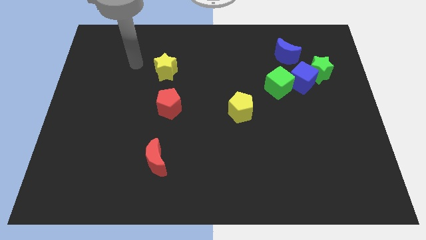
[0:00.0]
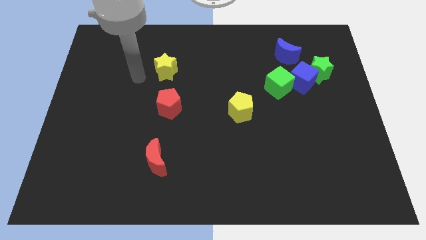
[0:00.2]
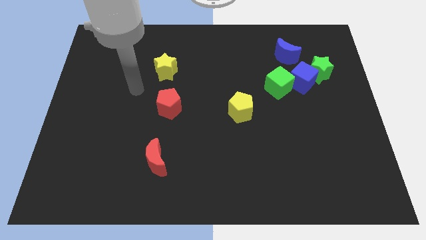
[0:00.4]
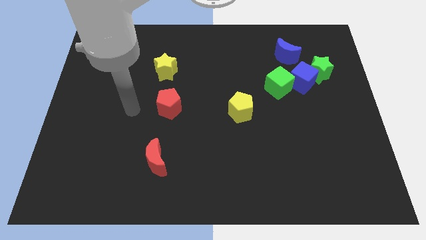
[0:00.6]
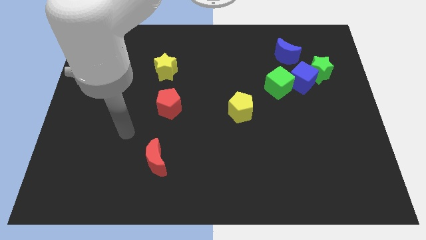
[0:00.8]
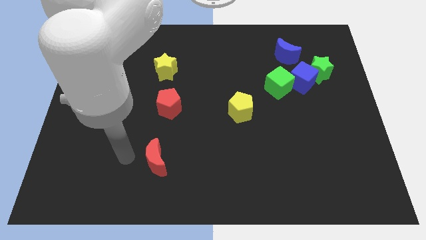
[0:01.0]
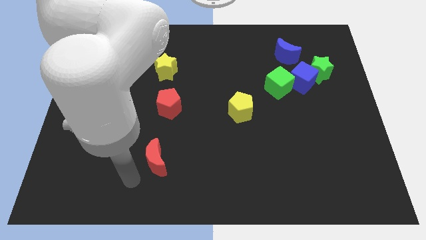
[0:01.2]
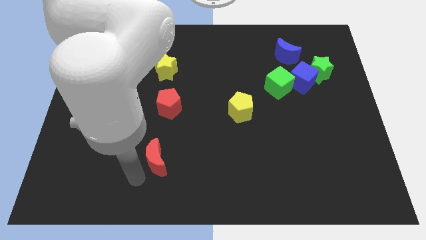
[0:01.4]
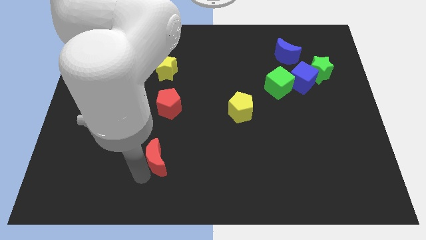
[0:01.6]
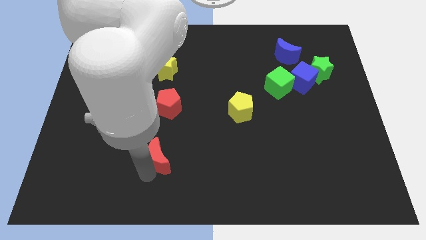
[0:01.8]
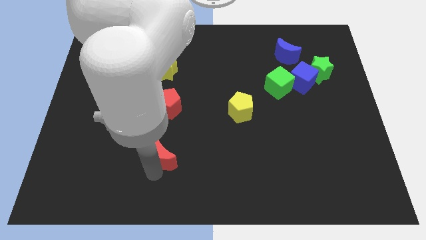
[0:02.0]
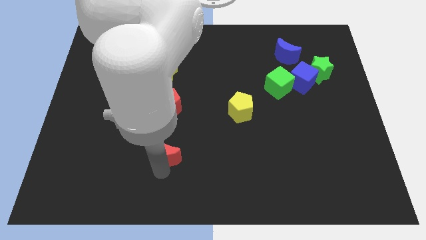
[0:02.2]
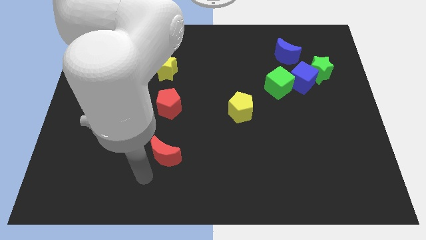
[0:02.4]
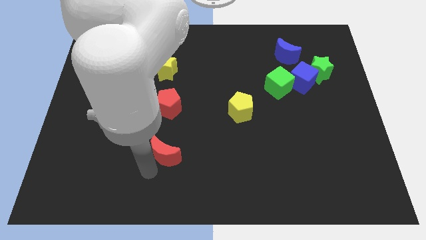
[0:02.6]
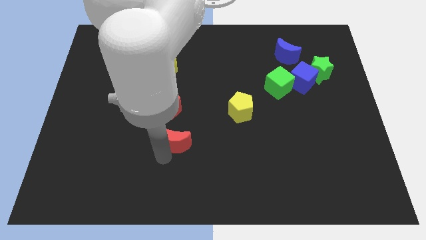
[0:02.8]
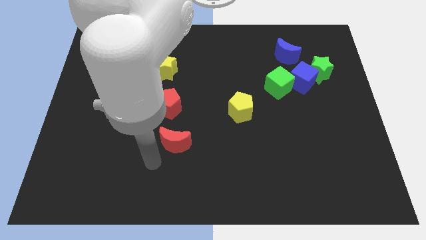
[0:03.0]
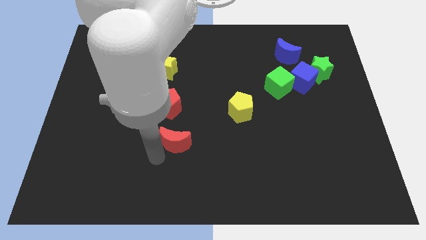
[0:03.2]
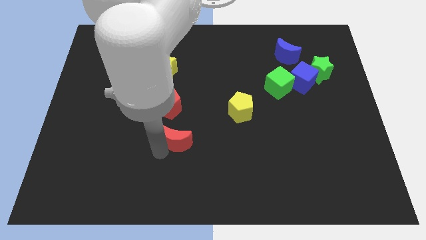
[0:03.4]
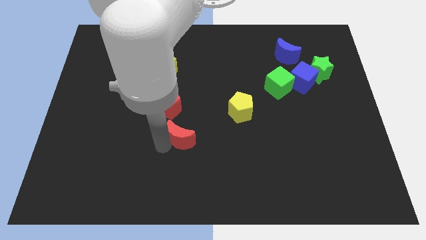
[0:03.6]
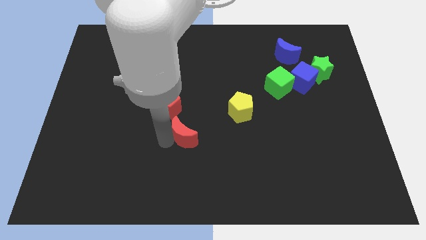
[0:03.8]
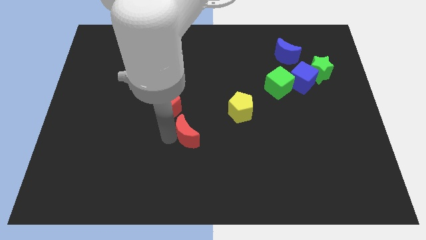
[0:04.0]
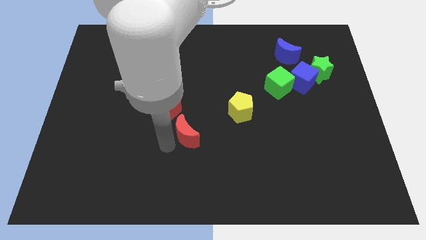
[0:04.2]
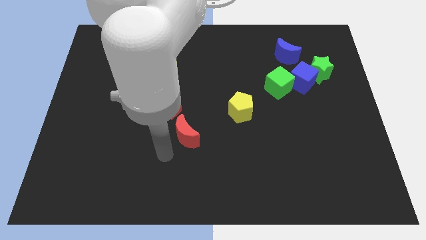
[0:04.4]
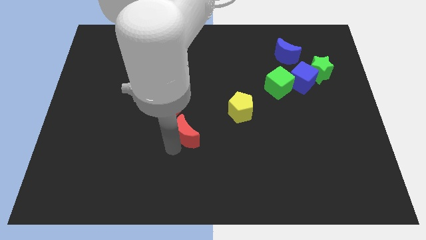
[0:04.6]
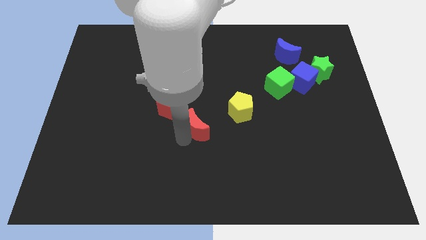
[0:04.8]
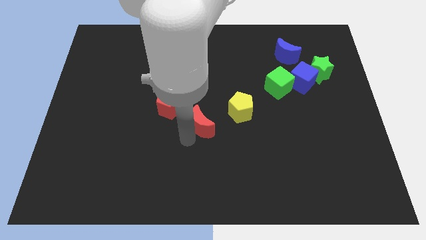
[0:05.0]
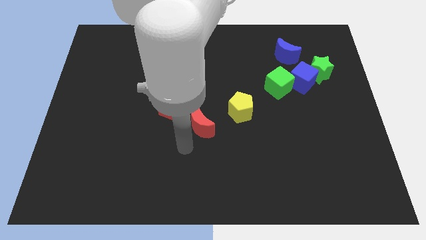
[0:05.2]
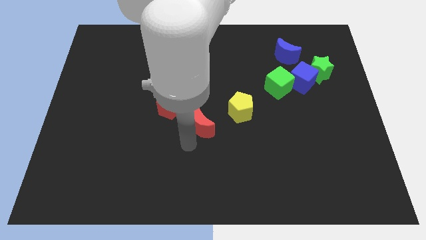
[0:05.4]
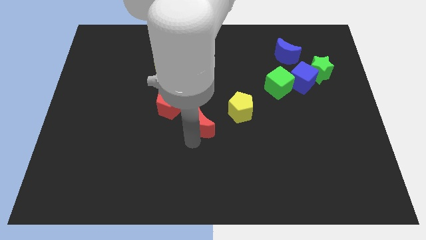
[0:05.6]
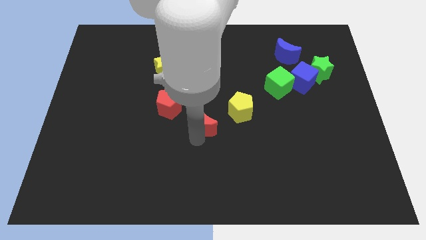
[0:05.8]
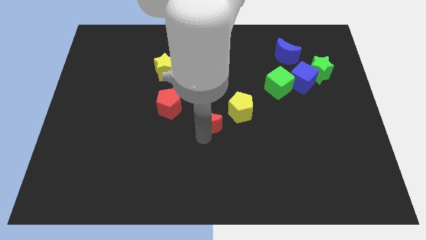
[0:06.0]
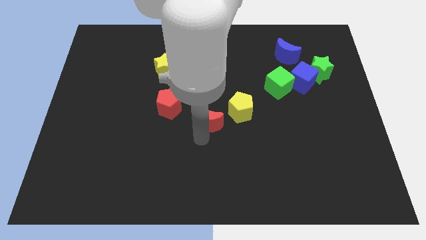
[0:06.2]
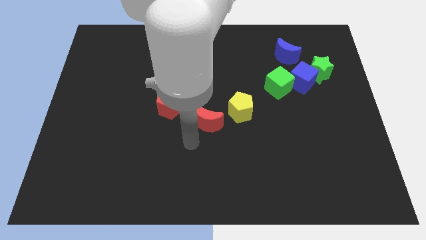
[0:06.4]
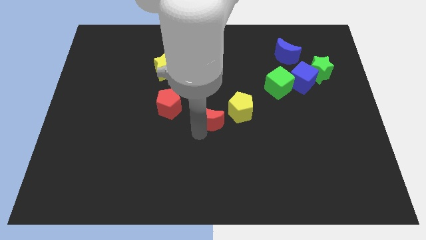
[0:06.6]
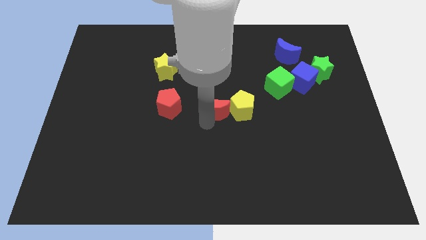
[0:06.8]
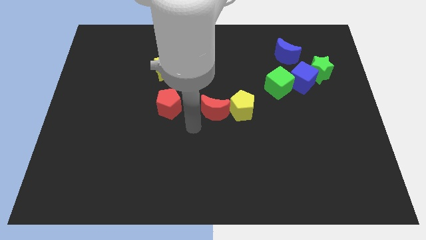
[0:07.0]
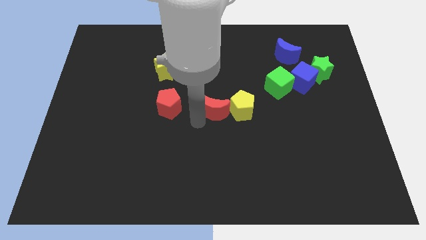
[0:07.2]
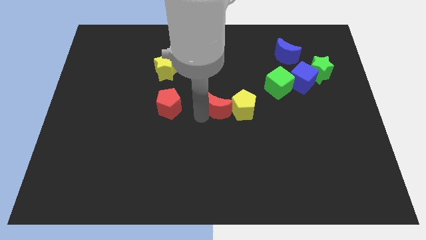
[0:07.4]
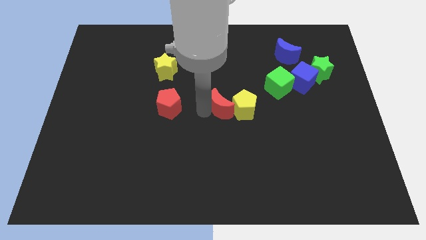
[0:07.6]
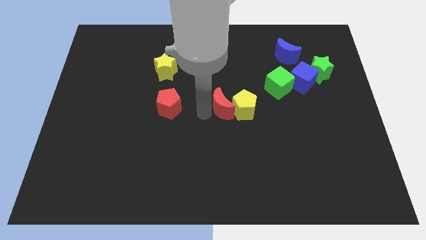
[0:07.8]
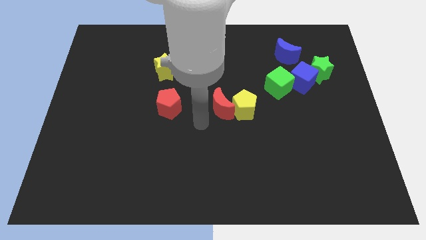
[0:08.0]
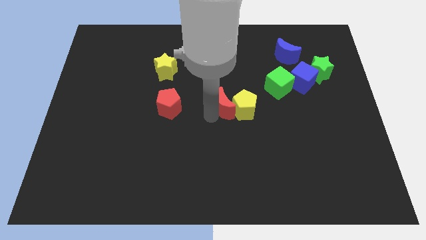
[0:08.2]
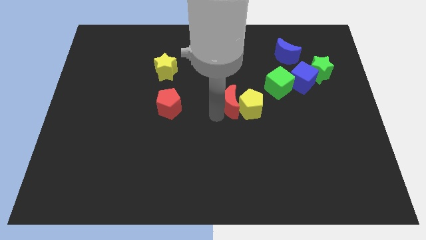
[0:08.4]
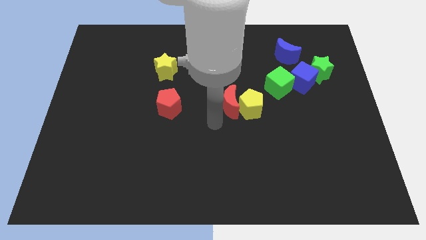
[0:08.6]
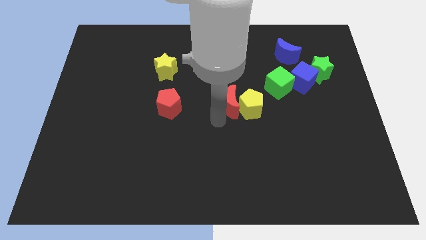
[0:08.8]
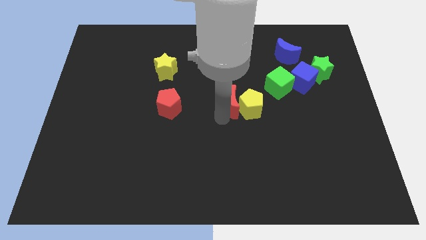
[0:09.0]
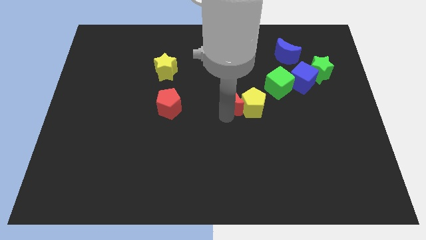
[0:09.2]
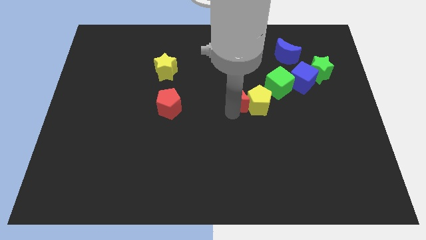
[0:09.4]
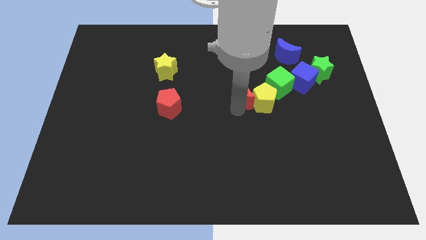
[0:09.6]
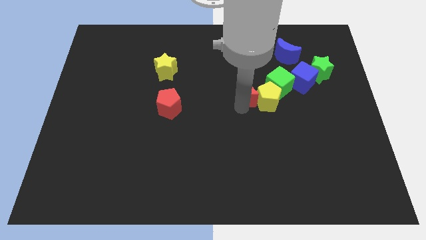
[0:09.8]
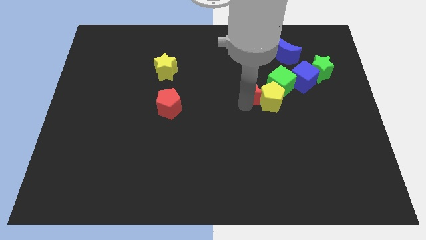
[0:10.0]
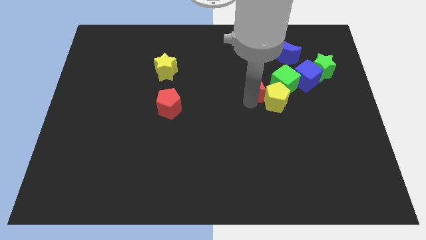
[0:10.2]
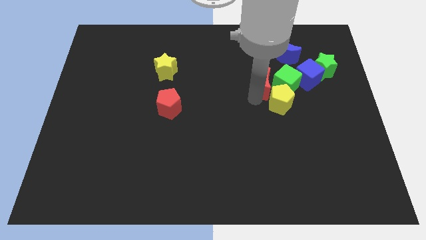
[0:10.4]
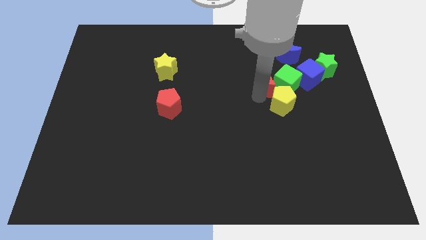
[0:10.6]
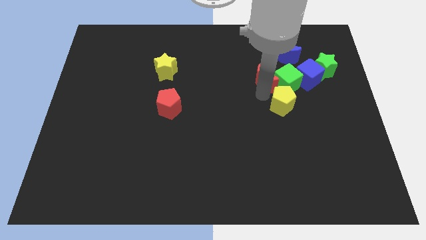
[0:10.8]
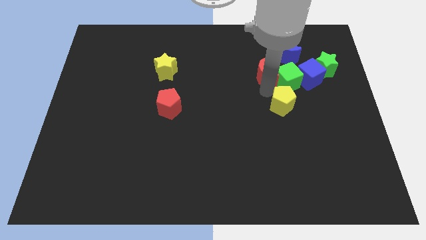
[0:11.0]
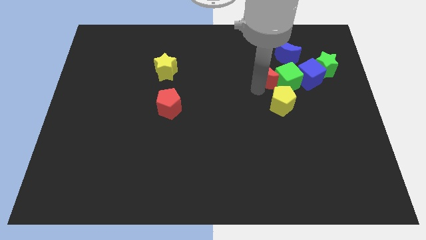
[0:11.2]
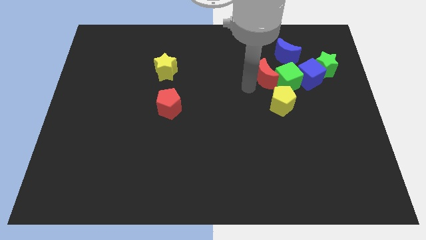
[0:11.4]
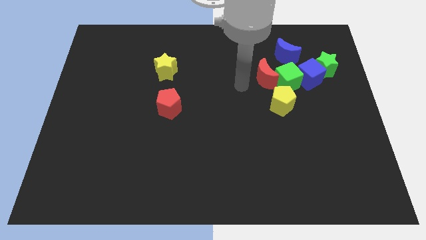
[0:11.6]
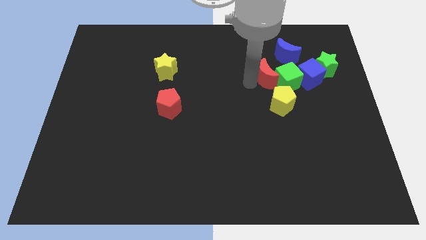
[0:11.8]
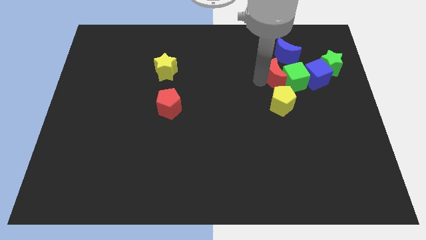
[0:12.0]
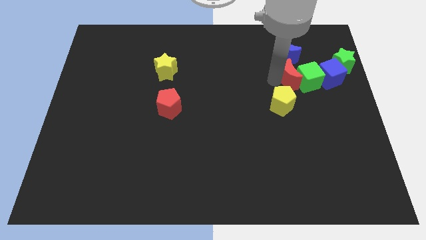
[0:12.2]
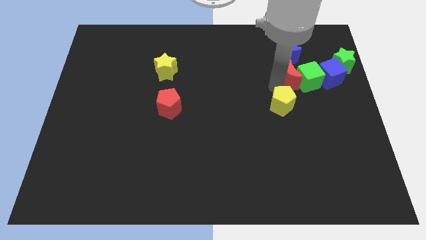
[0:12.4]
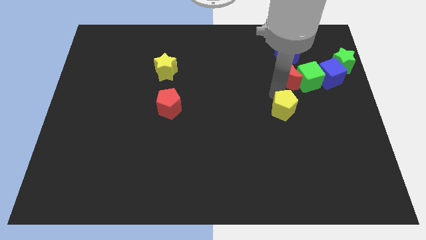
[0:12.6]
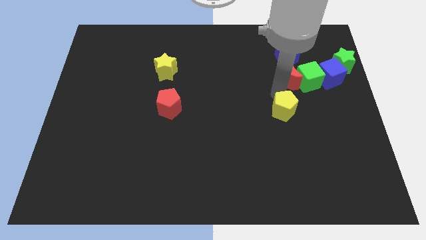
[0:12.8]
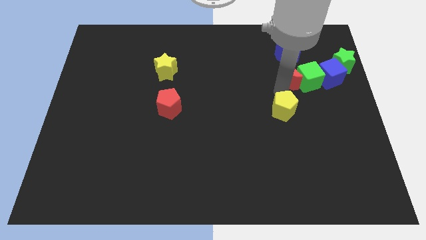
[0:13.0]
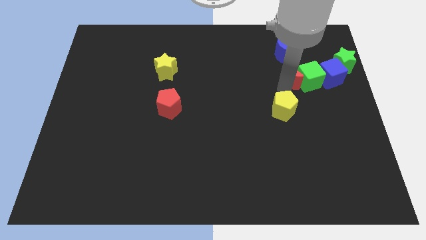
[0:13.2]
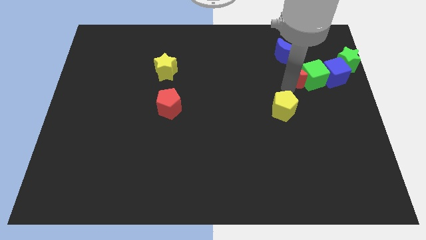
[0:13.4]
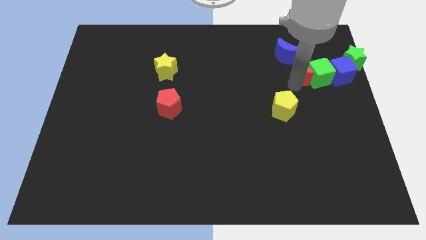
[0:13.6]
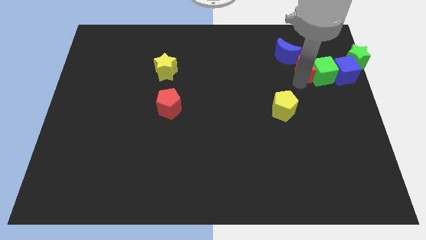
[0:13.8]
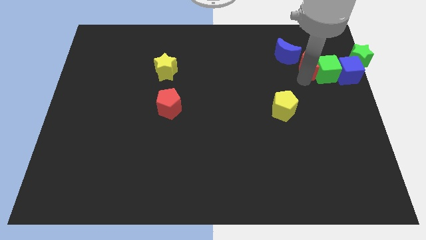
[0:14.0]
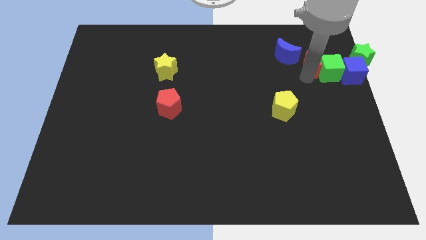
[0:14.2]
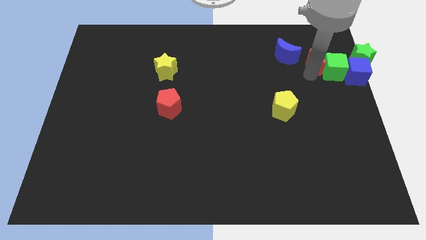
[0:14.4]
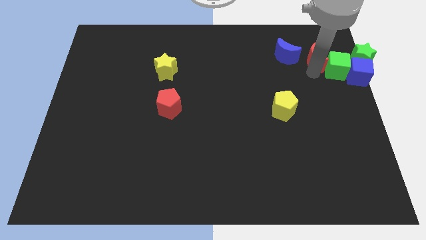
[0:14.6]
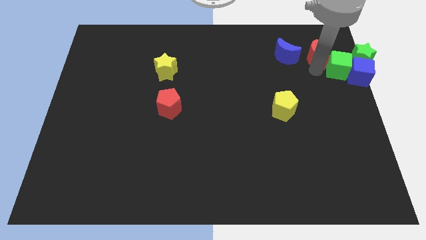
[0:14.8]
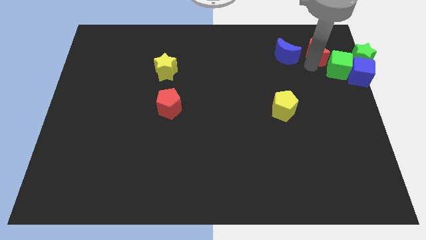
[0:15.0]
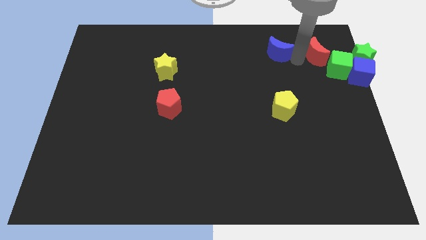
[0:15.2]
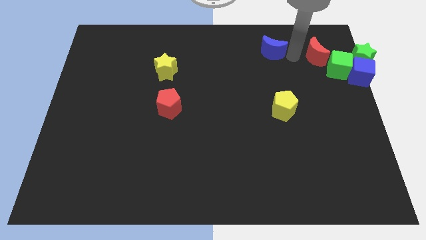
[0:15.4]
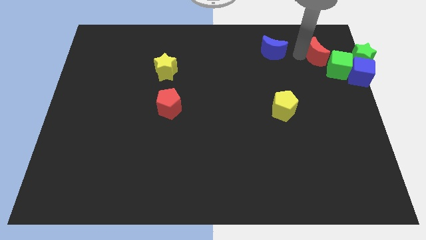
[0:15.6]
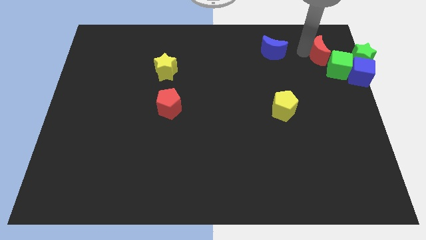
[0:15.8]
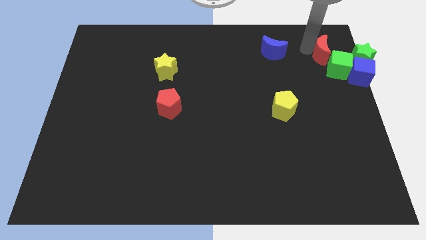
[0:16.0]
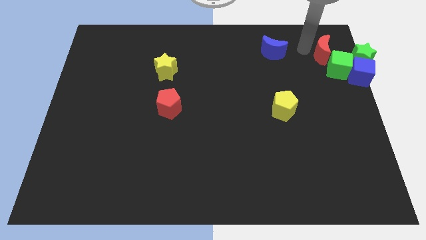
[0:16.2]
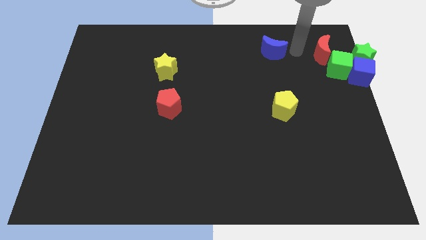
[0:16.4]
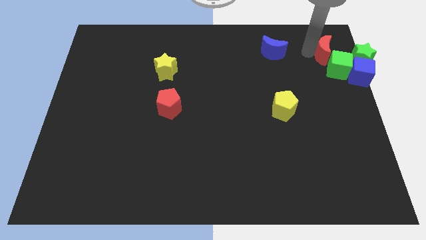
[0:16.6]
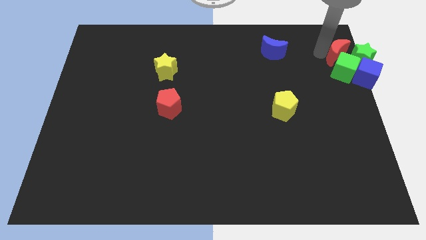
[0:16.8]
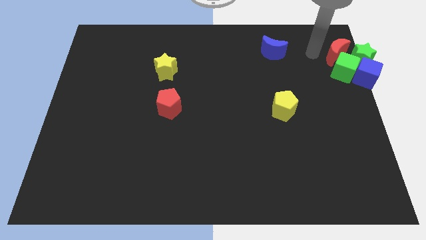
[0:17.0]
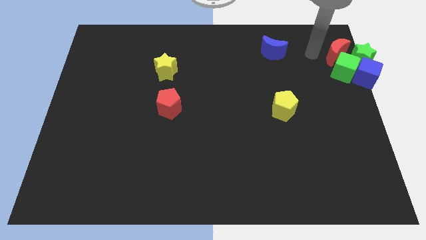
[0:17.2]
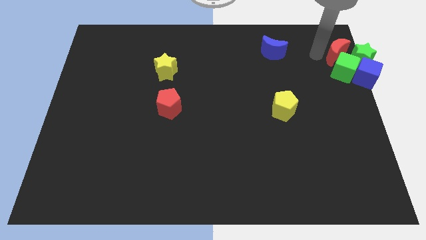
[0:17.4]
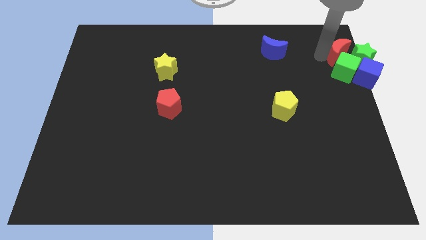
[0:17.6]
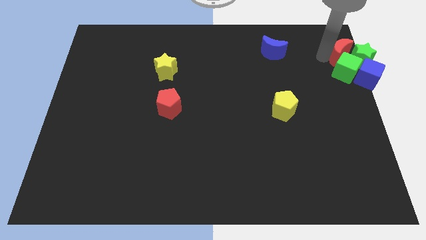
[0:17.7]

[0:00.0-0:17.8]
move the red moon to the top right corner
